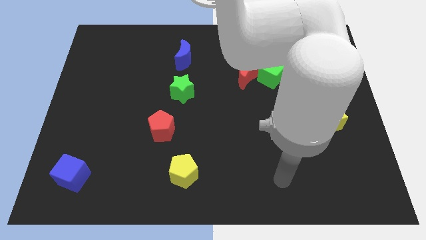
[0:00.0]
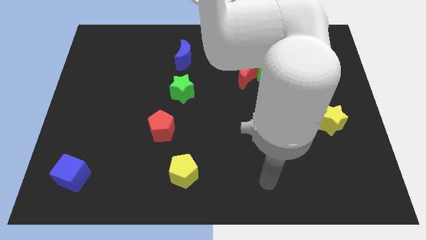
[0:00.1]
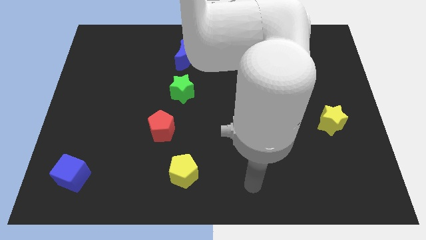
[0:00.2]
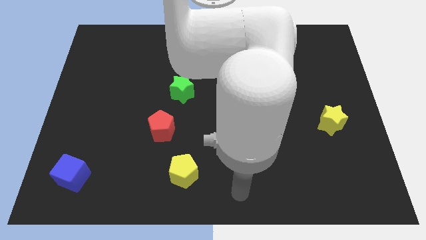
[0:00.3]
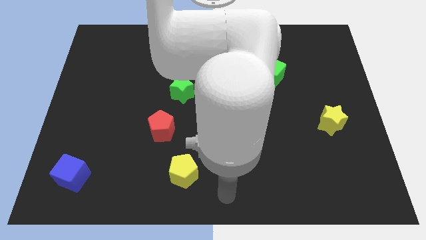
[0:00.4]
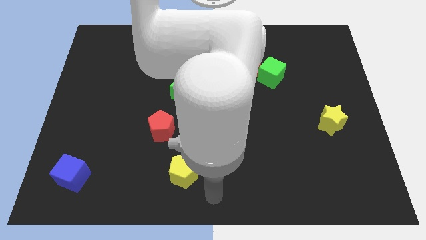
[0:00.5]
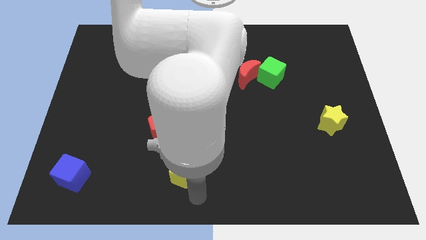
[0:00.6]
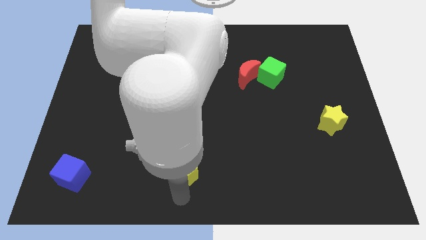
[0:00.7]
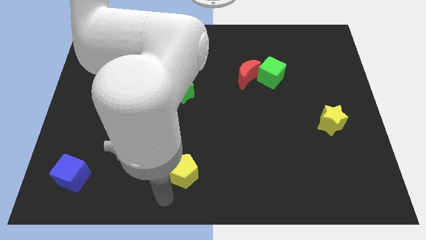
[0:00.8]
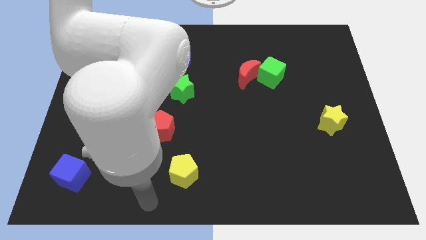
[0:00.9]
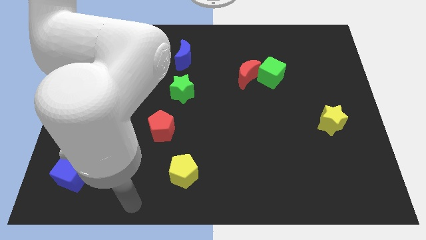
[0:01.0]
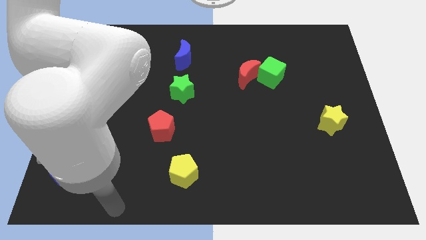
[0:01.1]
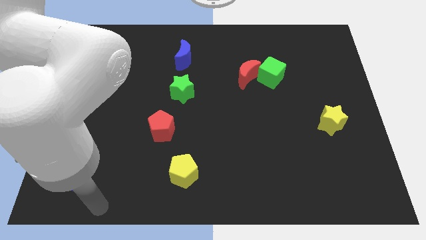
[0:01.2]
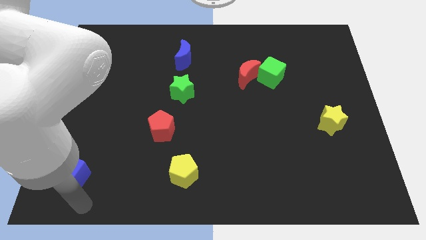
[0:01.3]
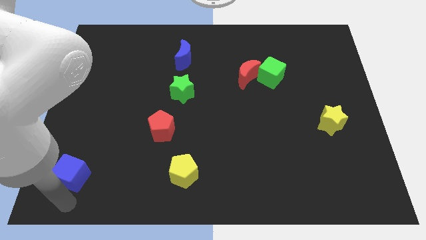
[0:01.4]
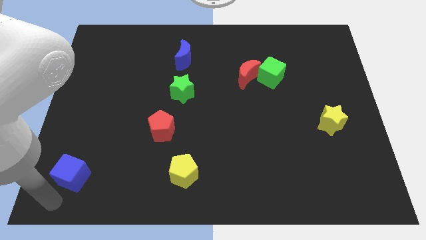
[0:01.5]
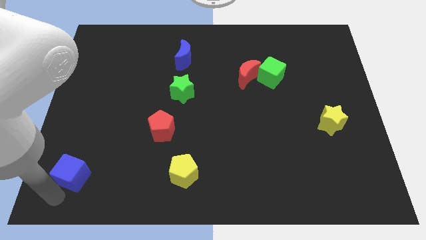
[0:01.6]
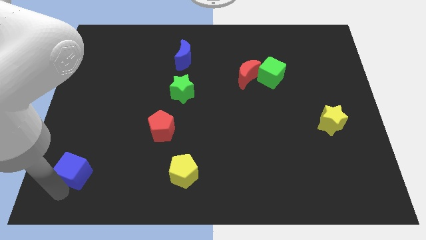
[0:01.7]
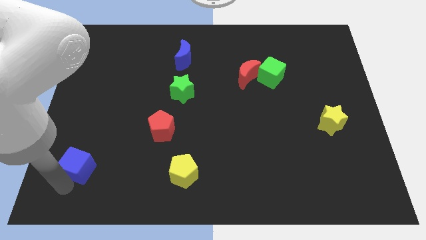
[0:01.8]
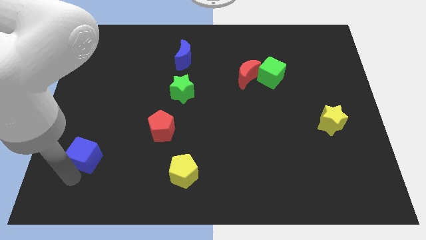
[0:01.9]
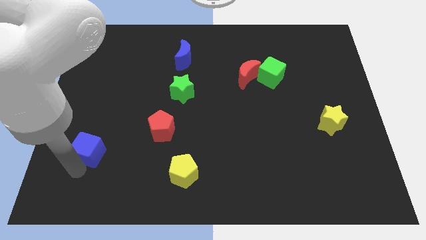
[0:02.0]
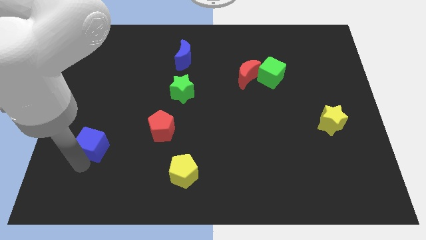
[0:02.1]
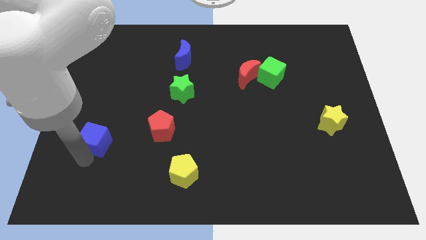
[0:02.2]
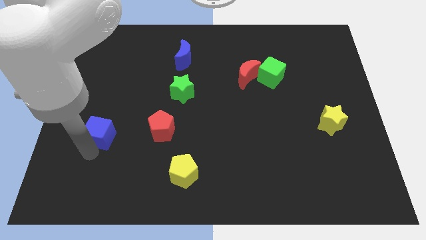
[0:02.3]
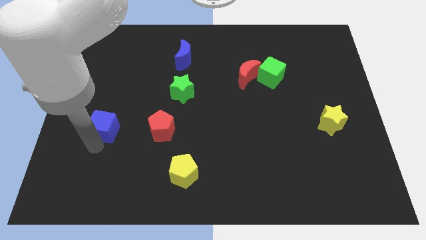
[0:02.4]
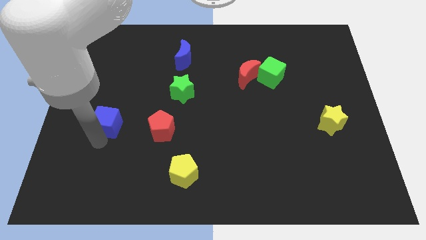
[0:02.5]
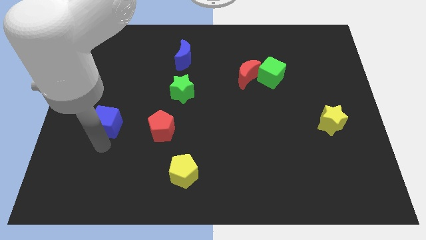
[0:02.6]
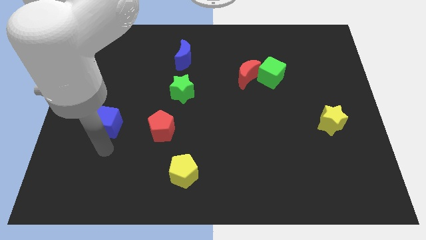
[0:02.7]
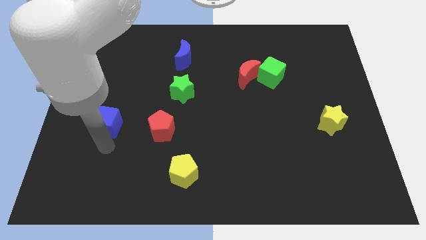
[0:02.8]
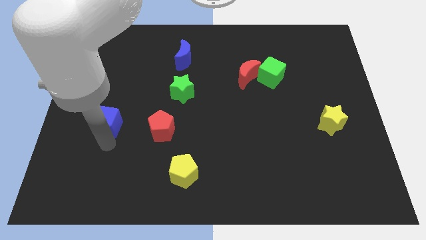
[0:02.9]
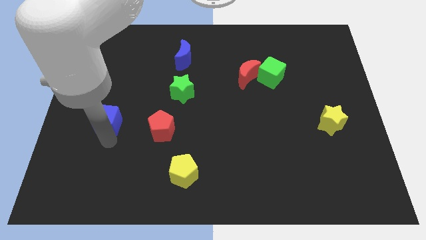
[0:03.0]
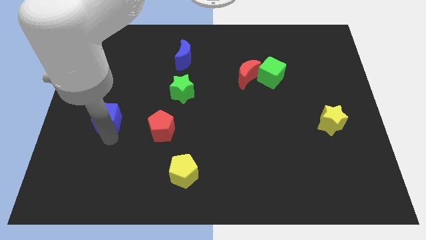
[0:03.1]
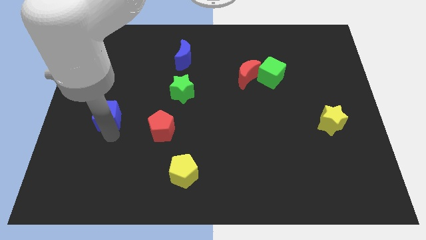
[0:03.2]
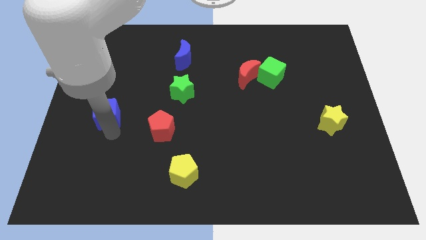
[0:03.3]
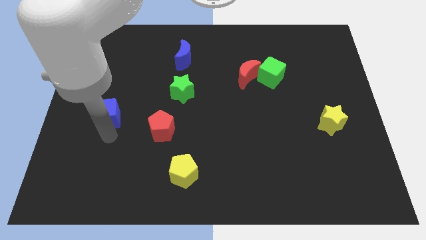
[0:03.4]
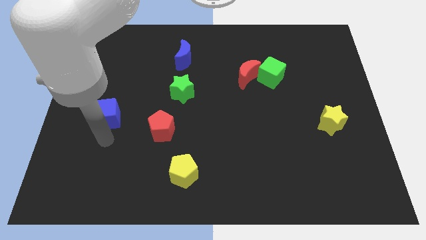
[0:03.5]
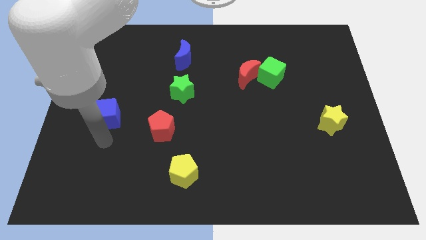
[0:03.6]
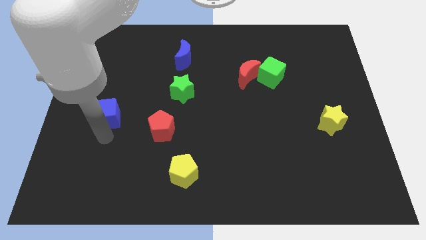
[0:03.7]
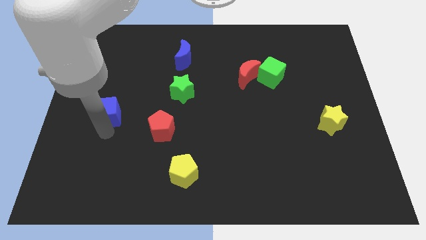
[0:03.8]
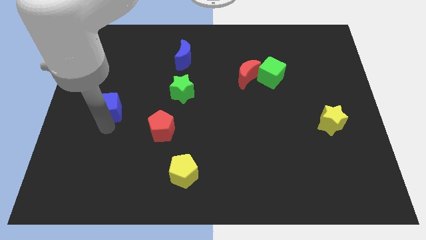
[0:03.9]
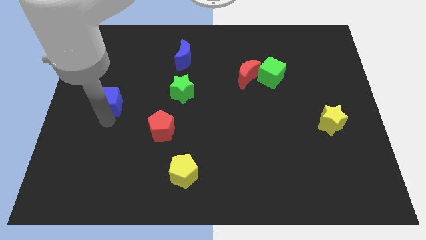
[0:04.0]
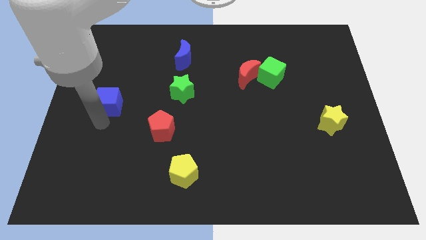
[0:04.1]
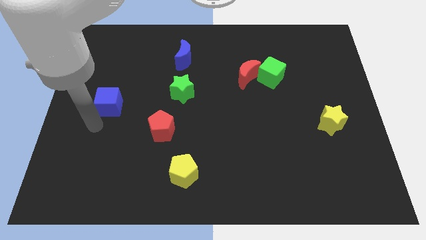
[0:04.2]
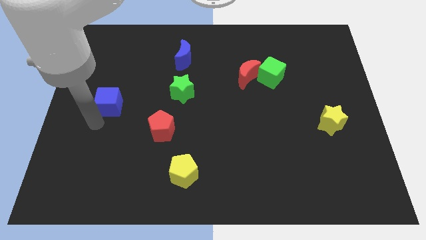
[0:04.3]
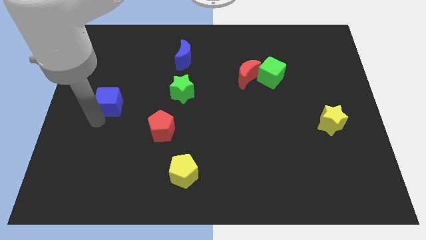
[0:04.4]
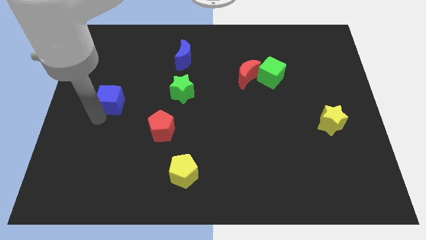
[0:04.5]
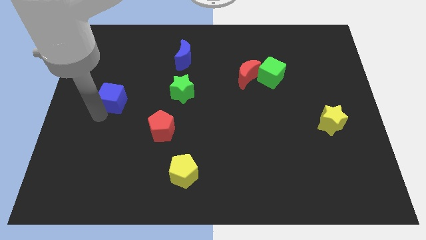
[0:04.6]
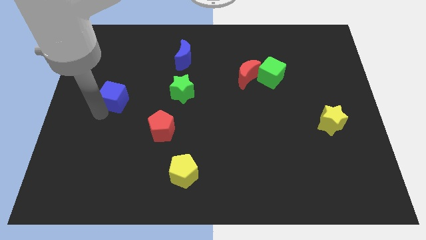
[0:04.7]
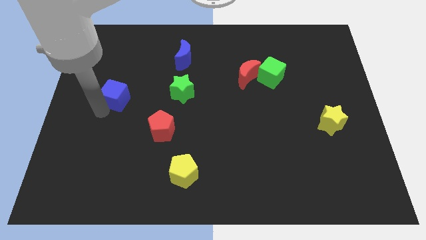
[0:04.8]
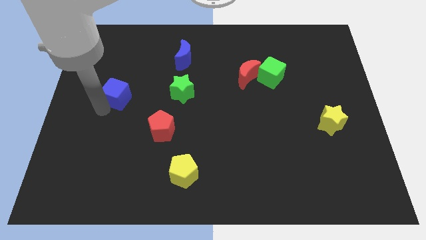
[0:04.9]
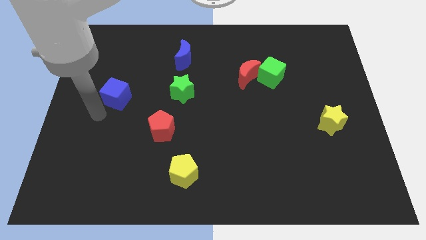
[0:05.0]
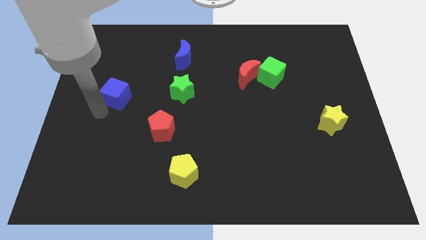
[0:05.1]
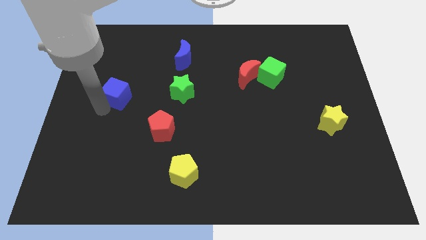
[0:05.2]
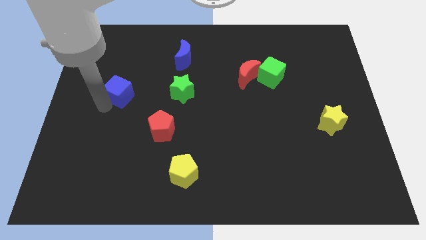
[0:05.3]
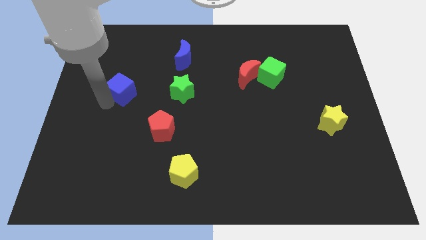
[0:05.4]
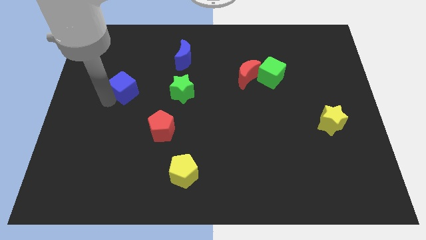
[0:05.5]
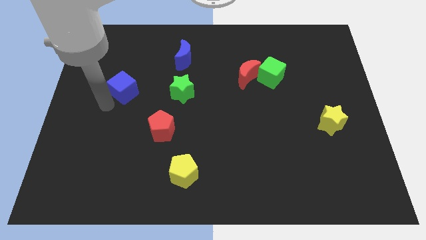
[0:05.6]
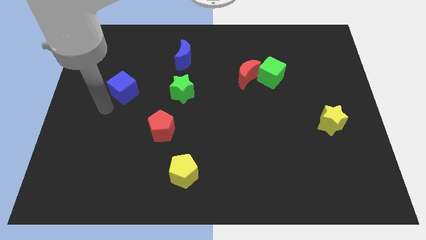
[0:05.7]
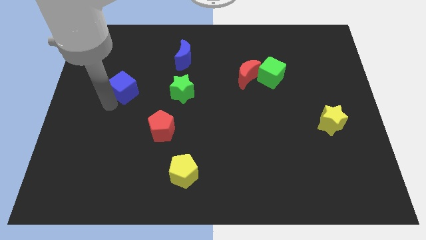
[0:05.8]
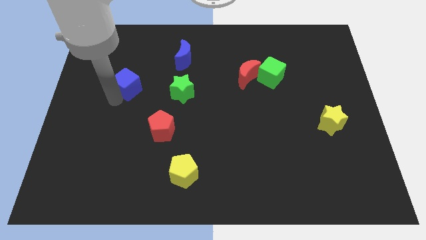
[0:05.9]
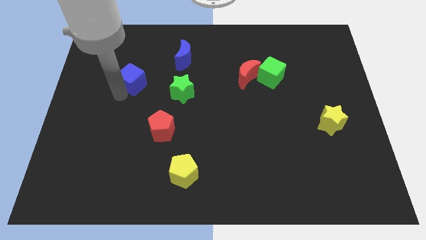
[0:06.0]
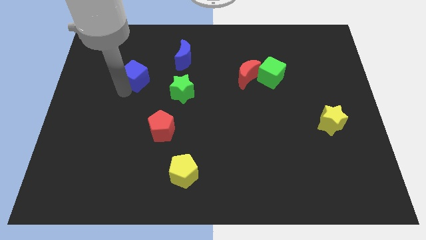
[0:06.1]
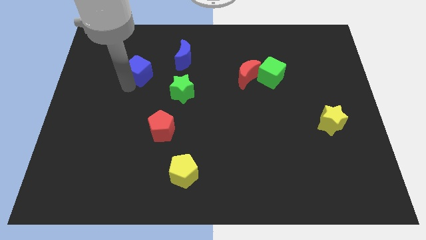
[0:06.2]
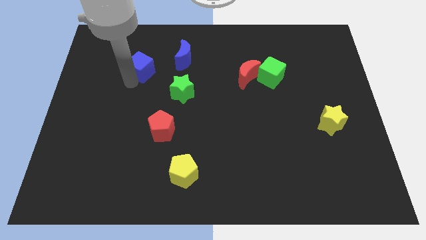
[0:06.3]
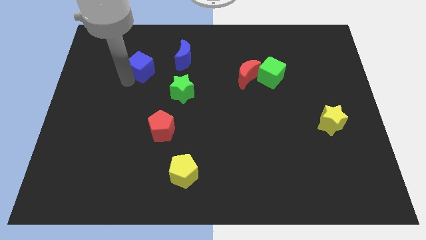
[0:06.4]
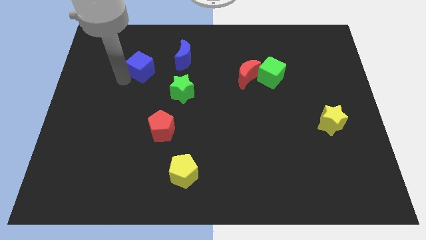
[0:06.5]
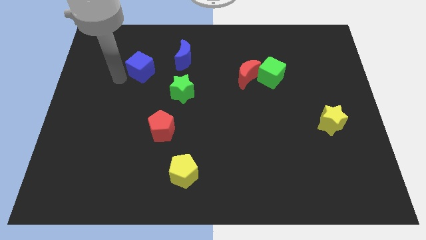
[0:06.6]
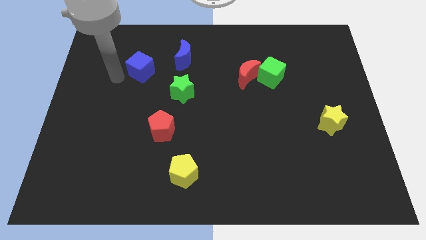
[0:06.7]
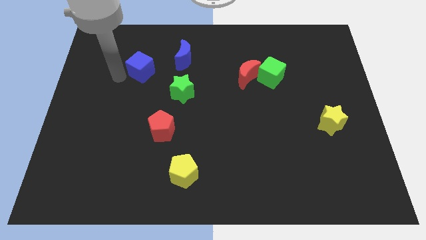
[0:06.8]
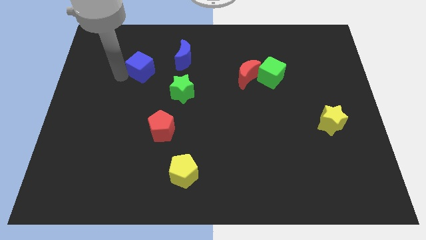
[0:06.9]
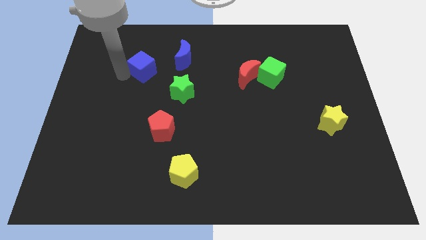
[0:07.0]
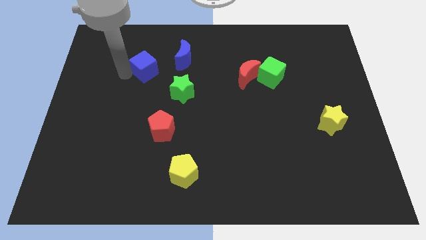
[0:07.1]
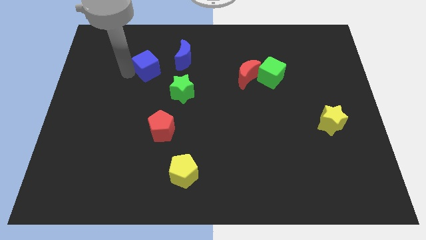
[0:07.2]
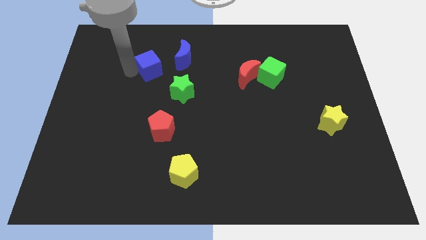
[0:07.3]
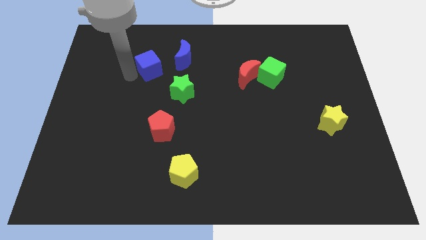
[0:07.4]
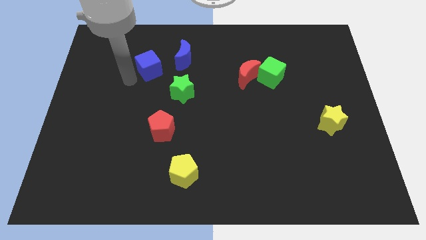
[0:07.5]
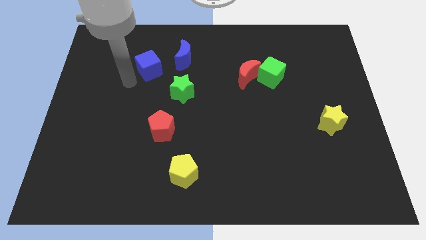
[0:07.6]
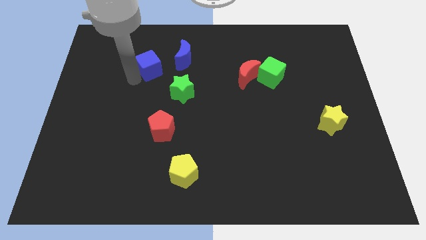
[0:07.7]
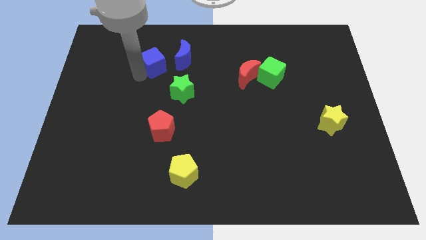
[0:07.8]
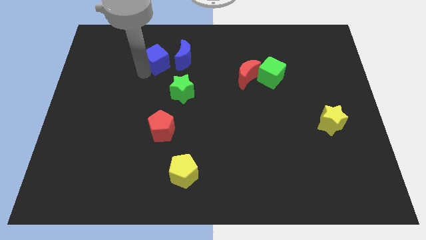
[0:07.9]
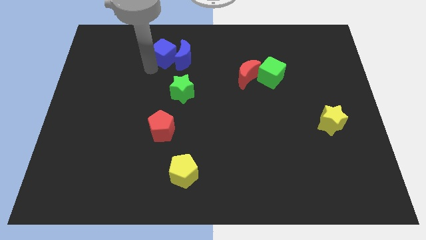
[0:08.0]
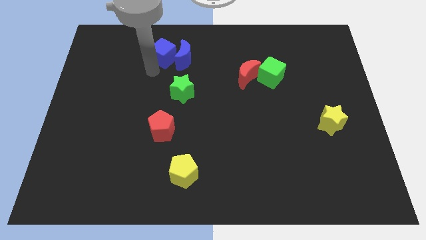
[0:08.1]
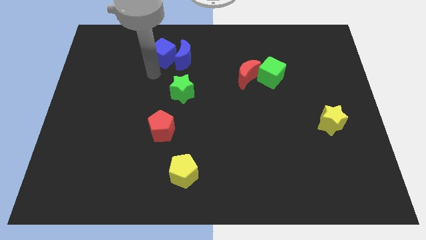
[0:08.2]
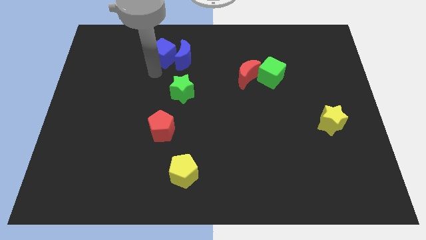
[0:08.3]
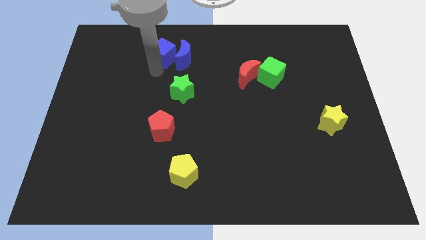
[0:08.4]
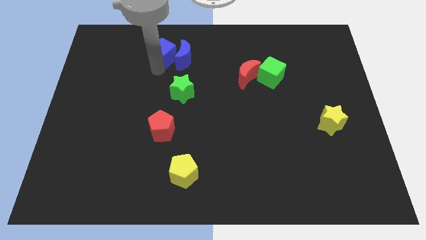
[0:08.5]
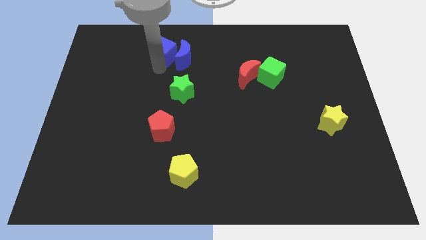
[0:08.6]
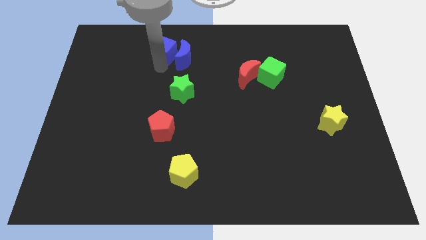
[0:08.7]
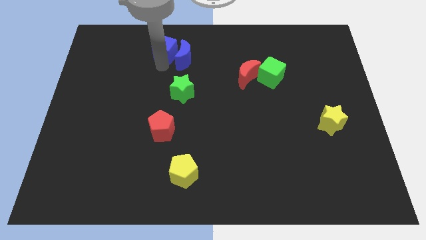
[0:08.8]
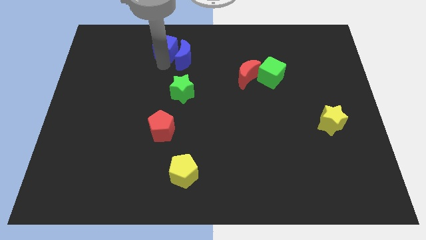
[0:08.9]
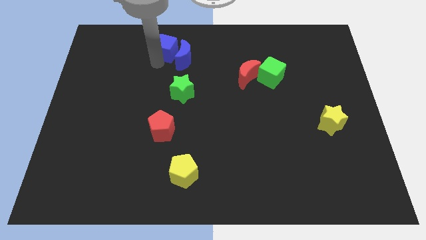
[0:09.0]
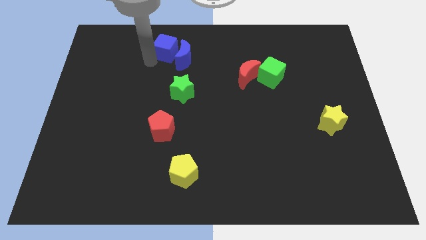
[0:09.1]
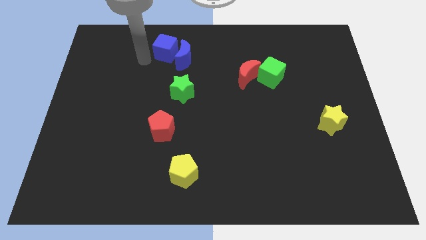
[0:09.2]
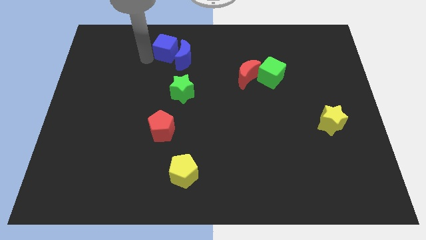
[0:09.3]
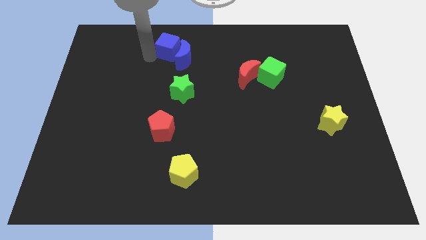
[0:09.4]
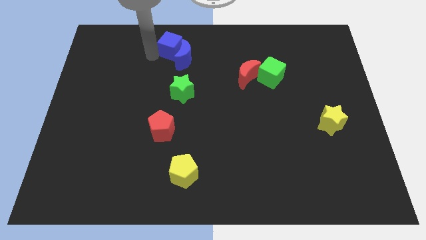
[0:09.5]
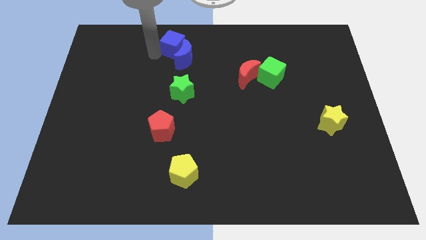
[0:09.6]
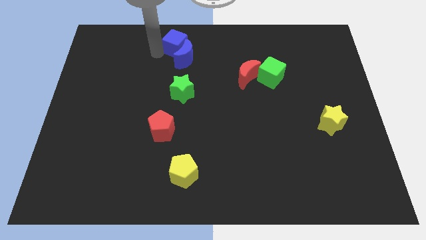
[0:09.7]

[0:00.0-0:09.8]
put the blue cube to the top side
